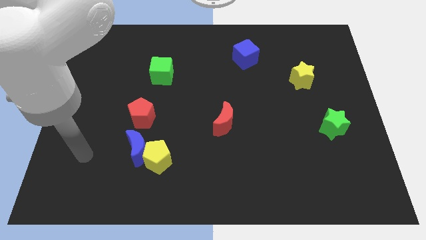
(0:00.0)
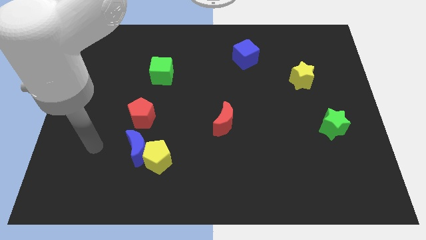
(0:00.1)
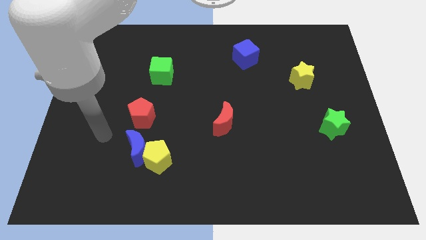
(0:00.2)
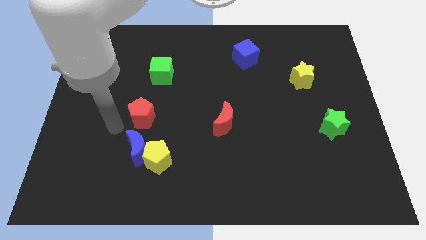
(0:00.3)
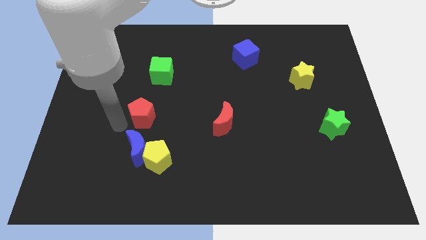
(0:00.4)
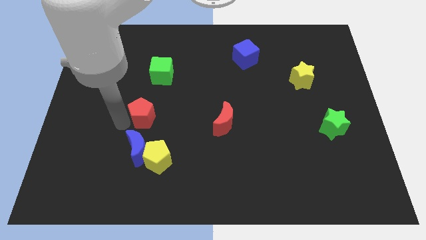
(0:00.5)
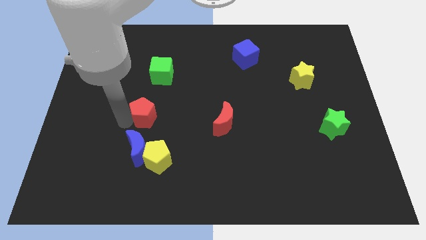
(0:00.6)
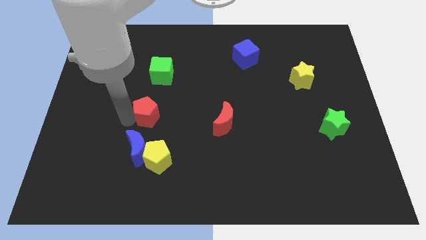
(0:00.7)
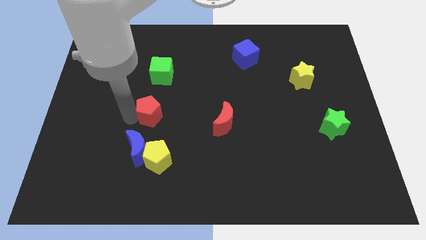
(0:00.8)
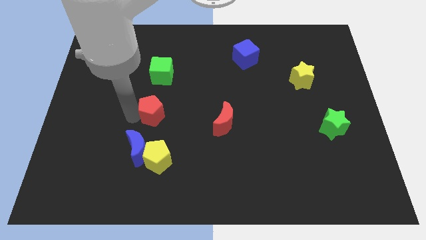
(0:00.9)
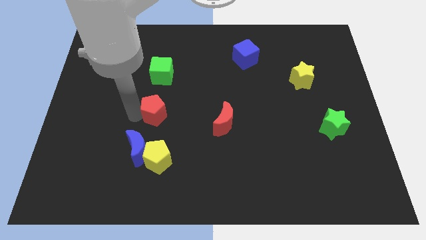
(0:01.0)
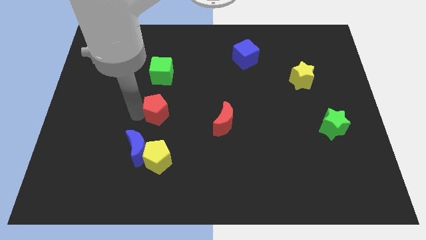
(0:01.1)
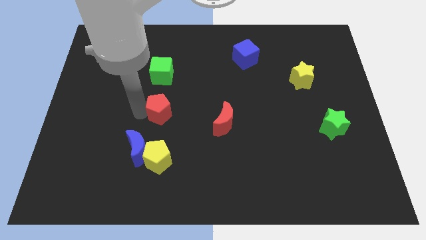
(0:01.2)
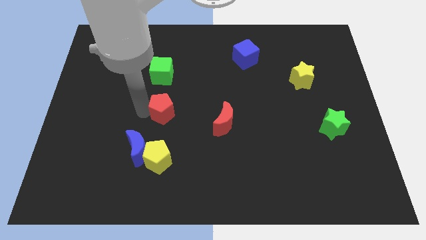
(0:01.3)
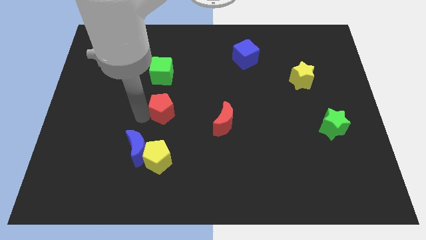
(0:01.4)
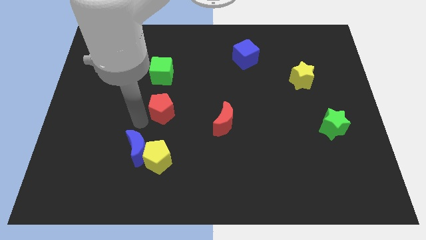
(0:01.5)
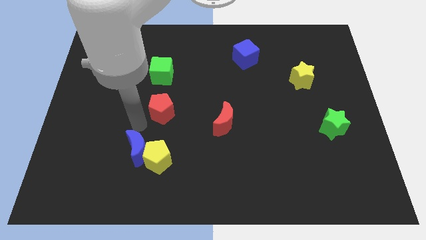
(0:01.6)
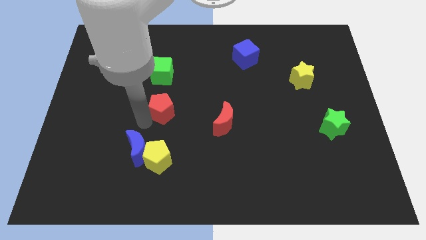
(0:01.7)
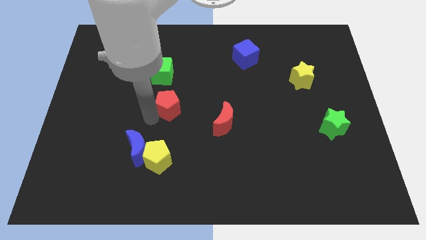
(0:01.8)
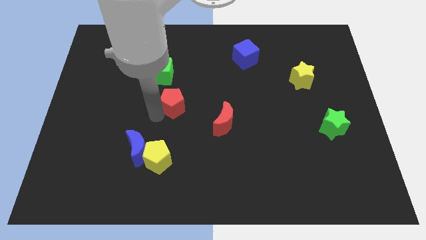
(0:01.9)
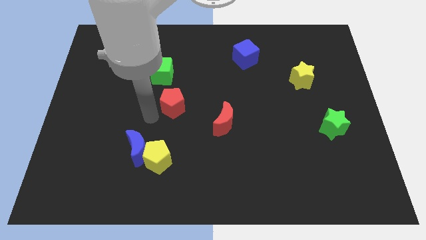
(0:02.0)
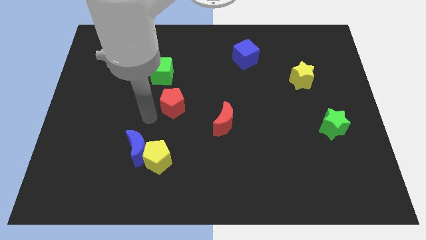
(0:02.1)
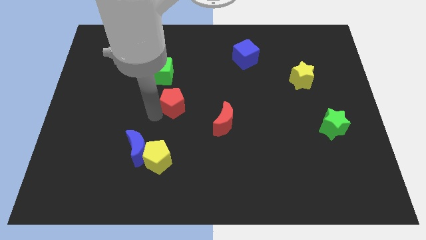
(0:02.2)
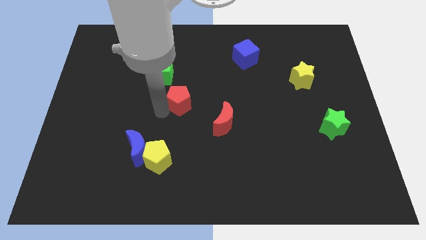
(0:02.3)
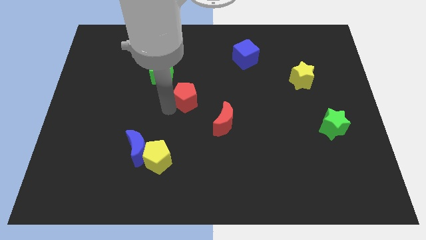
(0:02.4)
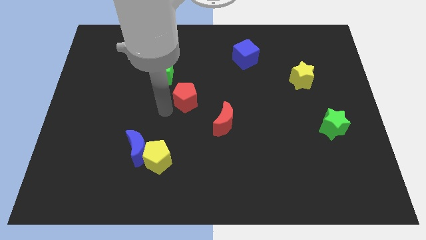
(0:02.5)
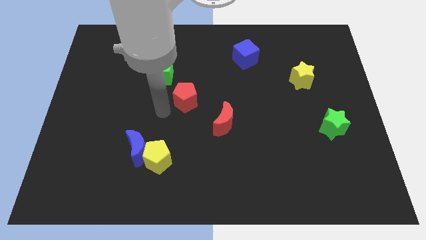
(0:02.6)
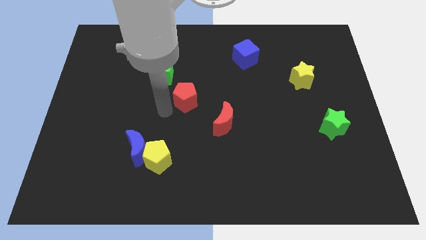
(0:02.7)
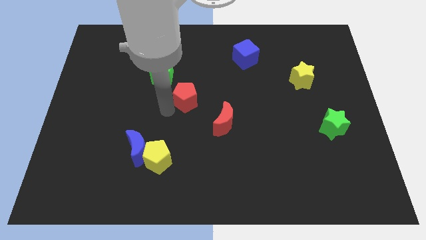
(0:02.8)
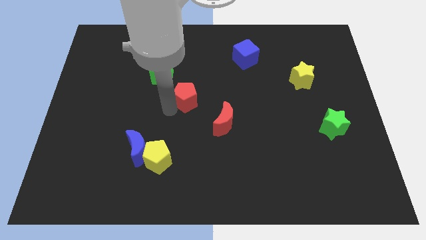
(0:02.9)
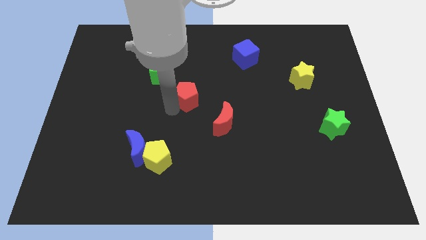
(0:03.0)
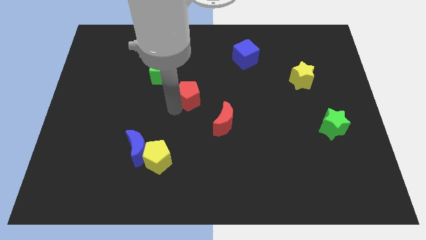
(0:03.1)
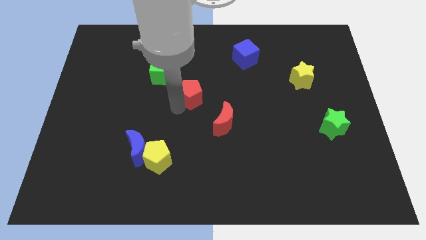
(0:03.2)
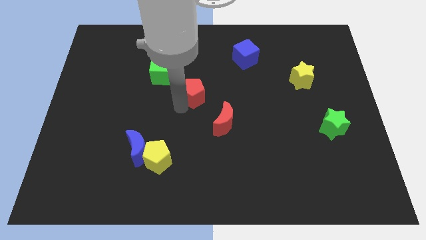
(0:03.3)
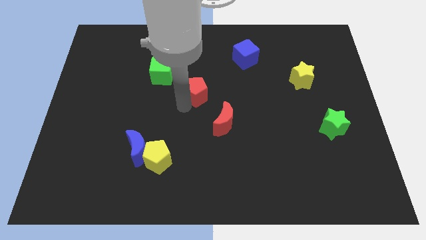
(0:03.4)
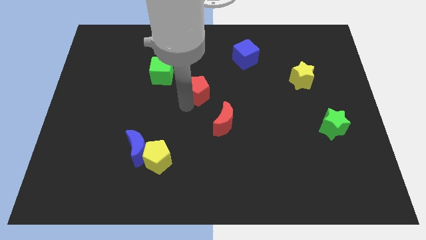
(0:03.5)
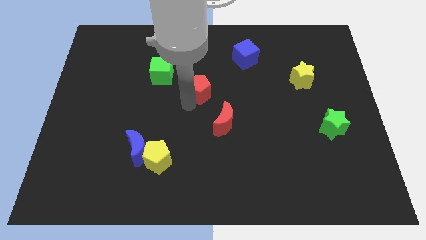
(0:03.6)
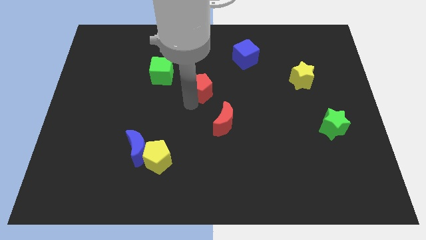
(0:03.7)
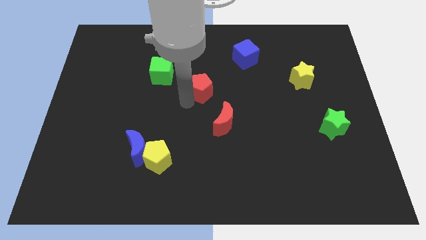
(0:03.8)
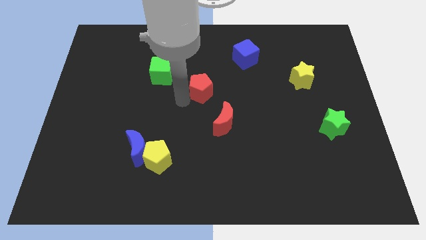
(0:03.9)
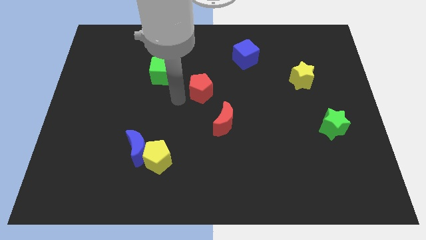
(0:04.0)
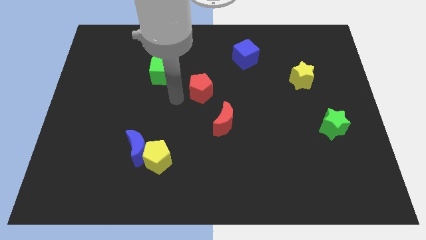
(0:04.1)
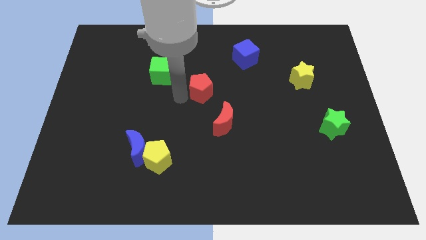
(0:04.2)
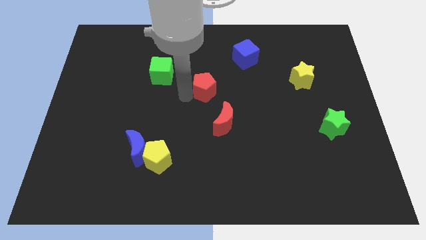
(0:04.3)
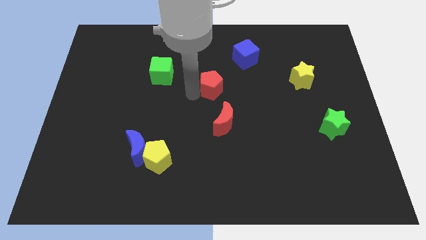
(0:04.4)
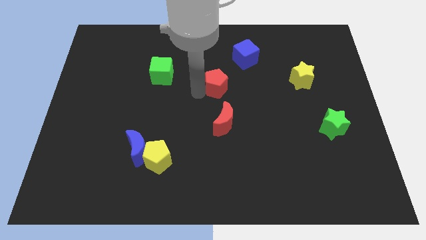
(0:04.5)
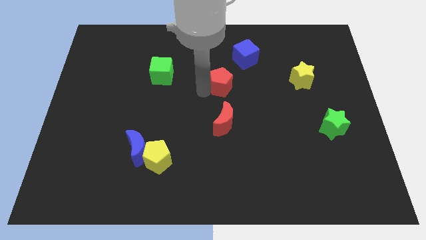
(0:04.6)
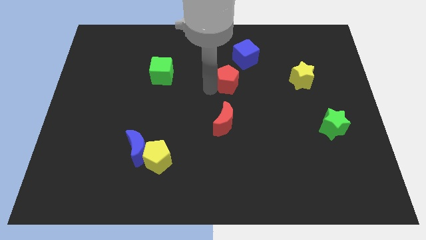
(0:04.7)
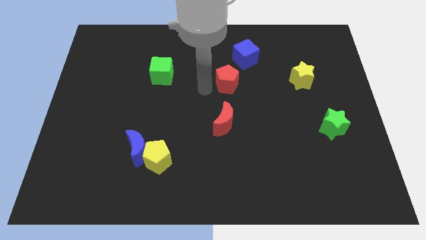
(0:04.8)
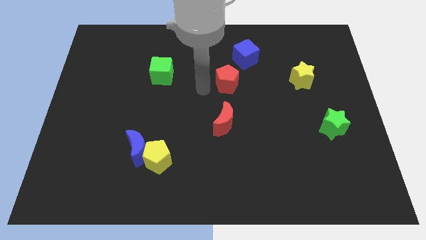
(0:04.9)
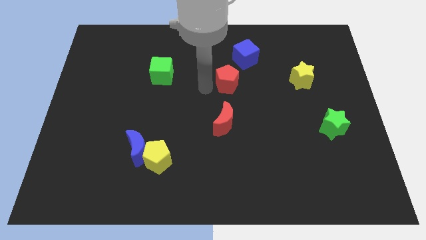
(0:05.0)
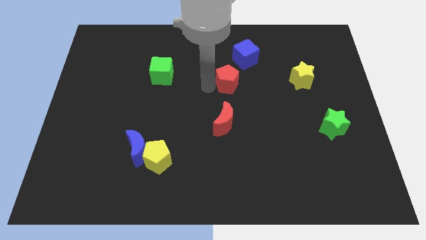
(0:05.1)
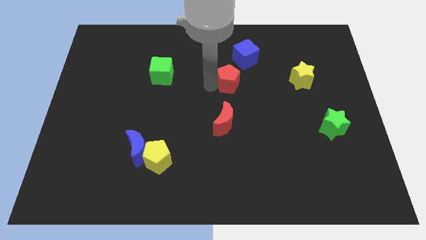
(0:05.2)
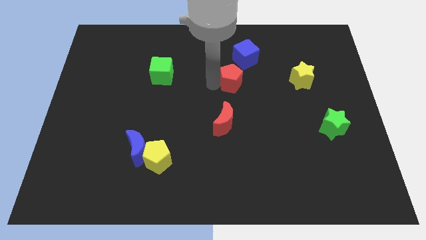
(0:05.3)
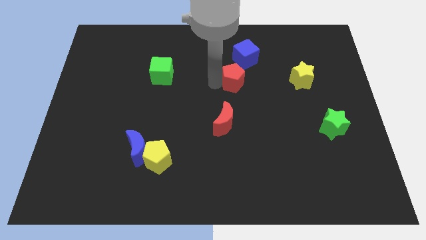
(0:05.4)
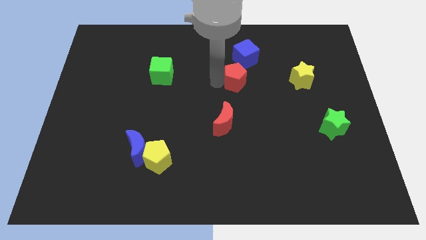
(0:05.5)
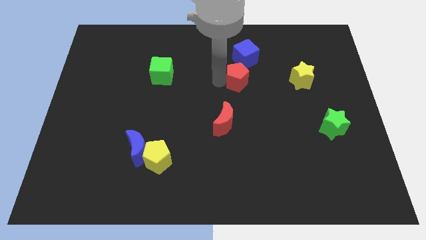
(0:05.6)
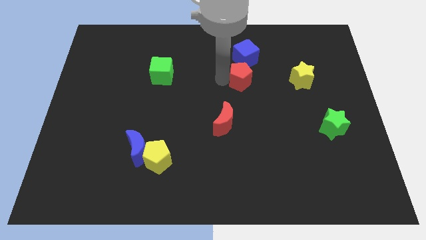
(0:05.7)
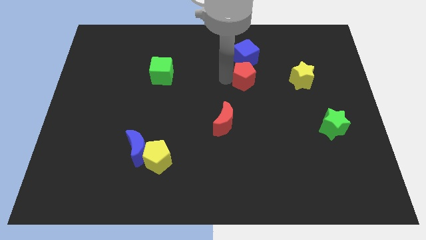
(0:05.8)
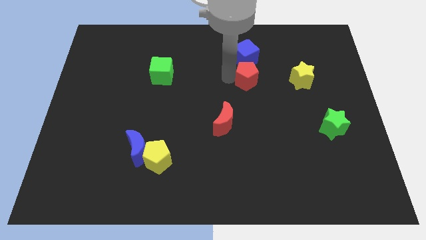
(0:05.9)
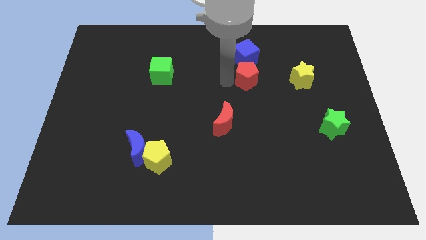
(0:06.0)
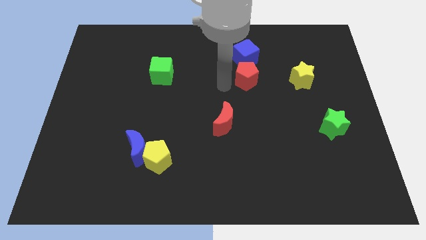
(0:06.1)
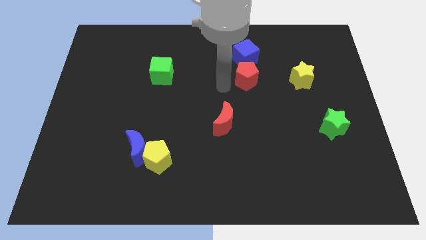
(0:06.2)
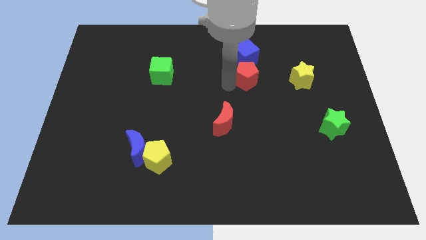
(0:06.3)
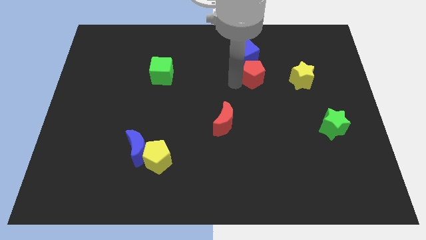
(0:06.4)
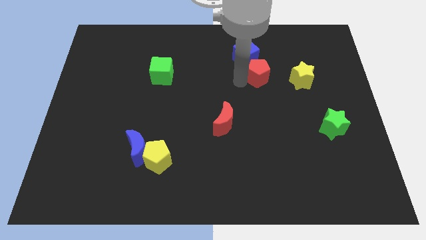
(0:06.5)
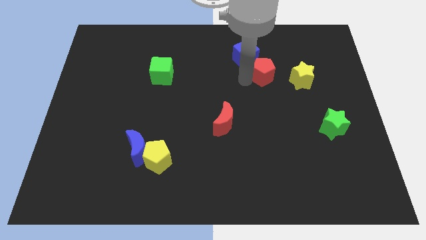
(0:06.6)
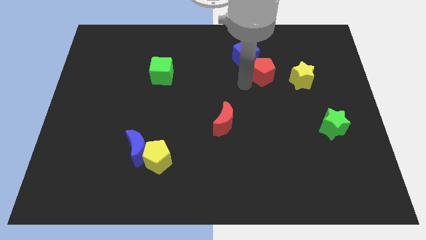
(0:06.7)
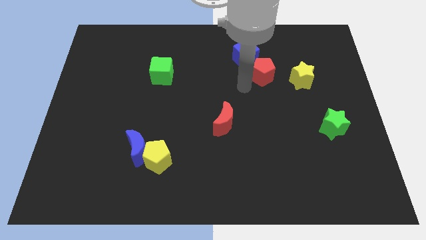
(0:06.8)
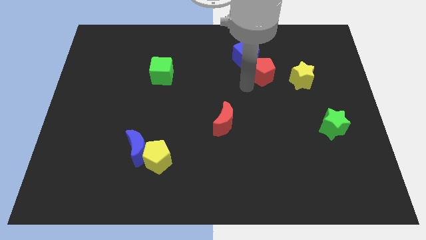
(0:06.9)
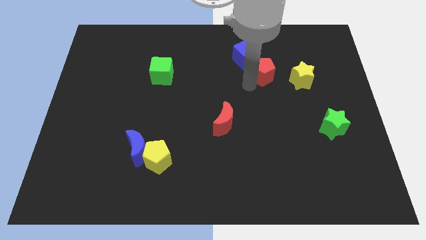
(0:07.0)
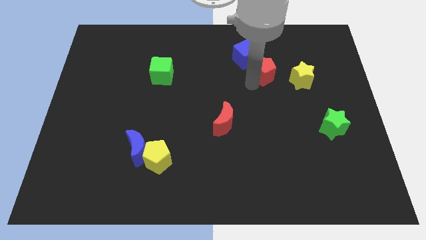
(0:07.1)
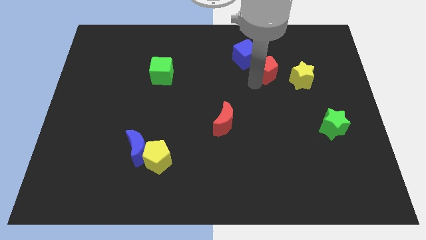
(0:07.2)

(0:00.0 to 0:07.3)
slide the red pentagon to the top left side of the yellow star

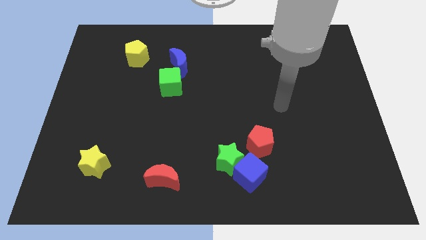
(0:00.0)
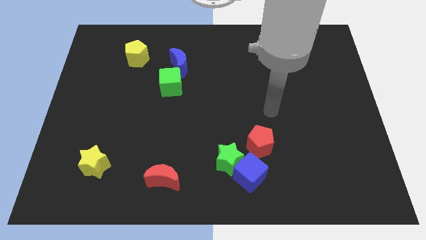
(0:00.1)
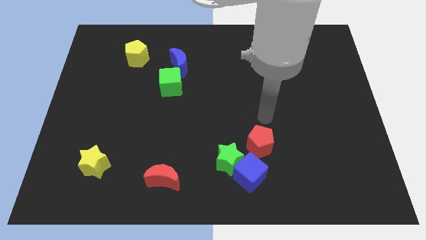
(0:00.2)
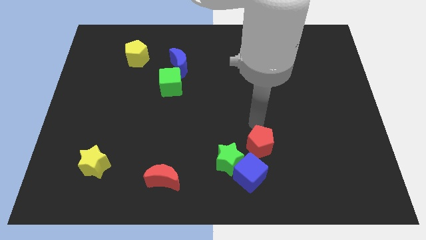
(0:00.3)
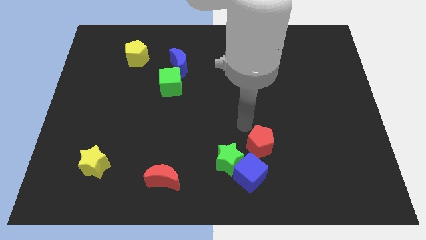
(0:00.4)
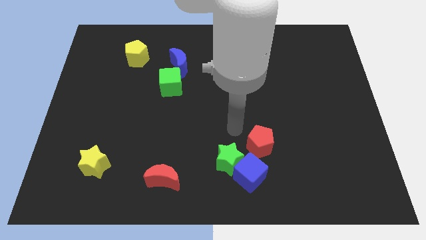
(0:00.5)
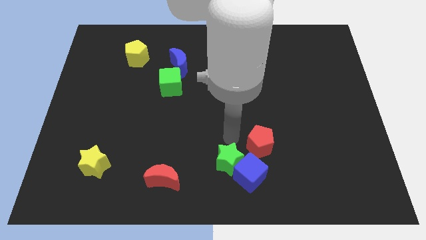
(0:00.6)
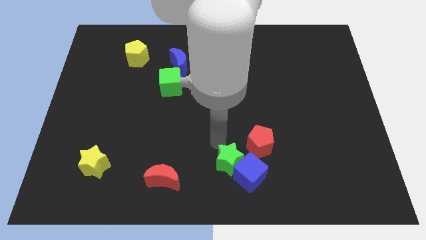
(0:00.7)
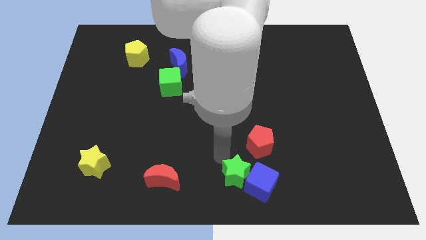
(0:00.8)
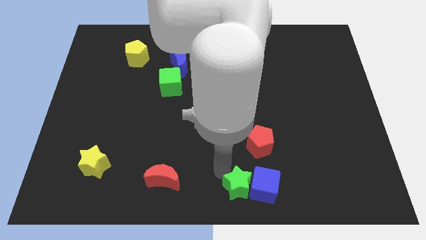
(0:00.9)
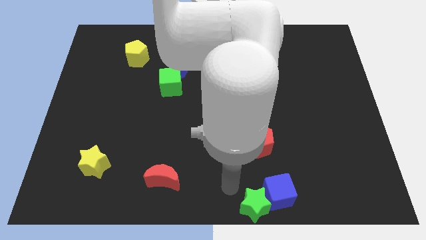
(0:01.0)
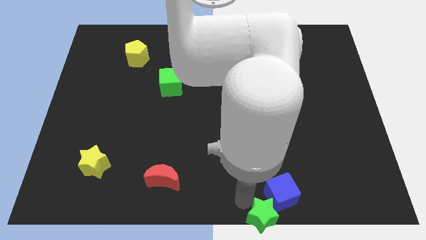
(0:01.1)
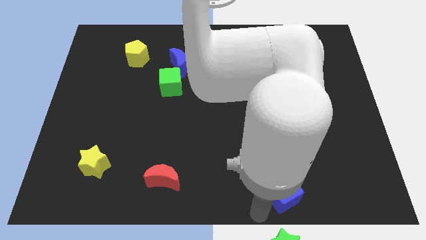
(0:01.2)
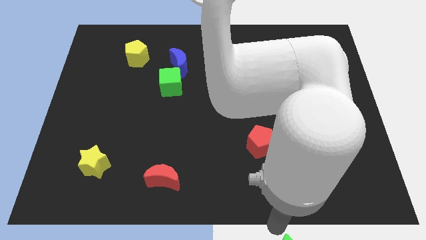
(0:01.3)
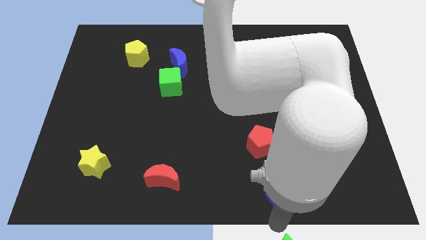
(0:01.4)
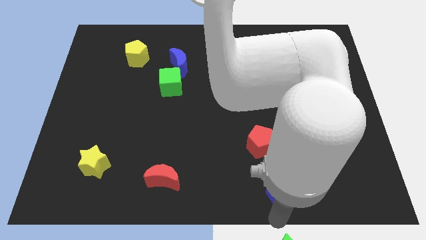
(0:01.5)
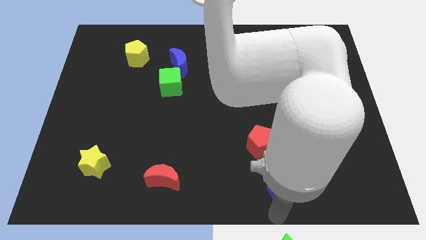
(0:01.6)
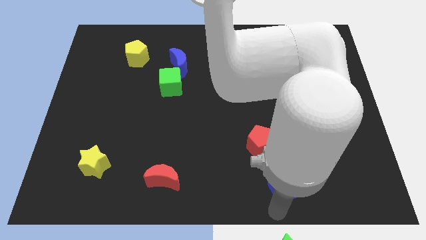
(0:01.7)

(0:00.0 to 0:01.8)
move the blue cube to the bottom right side of the red pentagon
